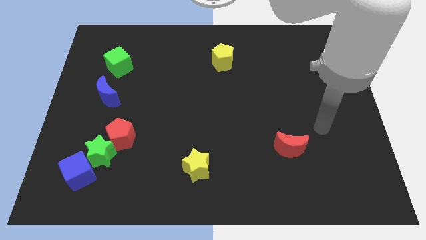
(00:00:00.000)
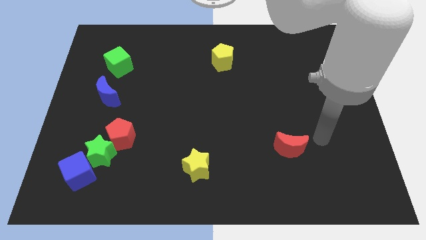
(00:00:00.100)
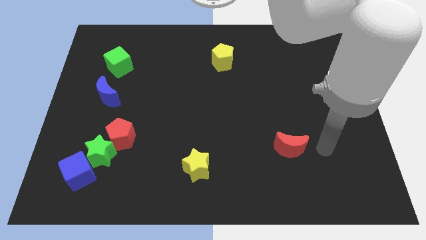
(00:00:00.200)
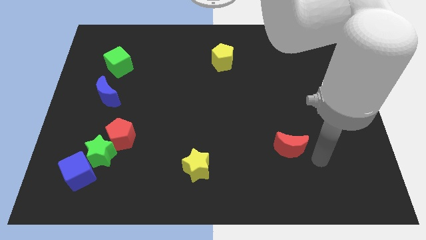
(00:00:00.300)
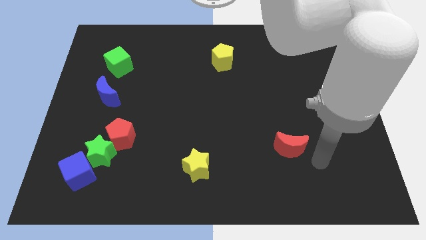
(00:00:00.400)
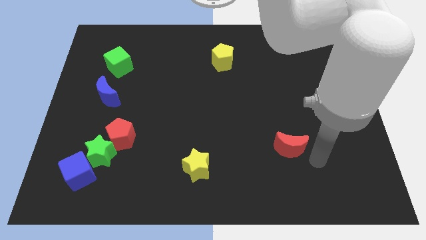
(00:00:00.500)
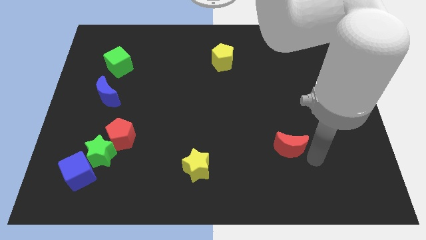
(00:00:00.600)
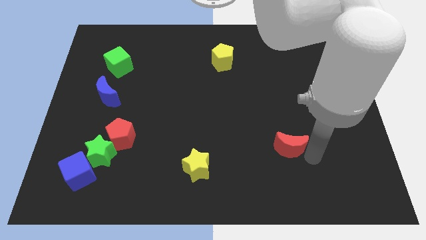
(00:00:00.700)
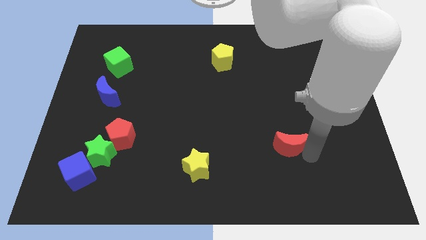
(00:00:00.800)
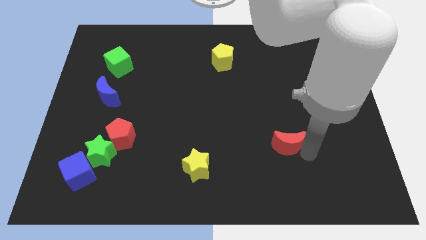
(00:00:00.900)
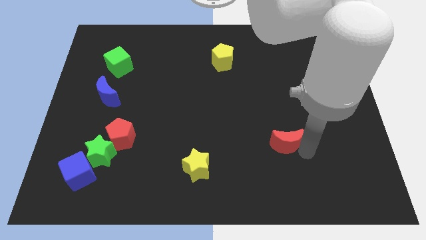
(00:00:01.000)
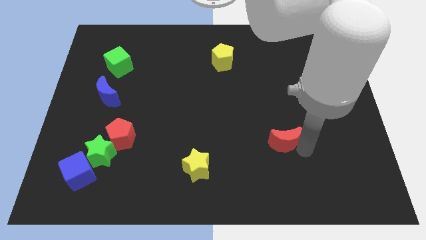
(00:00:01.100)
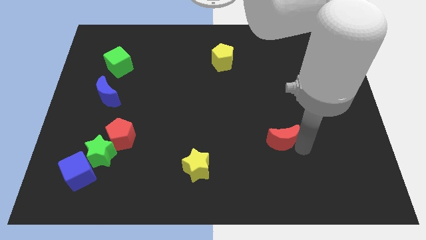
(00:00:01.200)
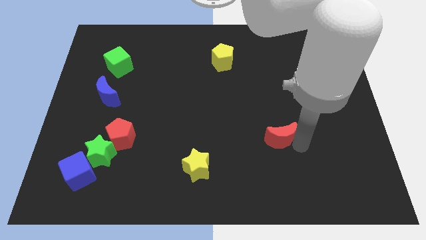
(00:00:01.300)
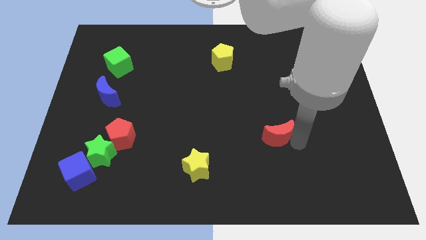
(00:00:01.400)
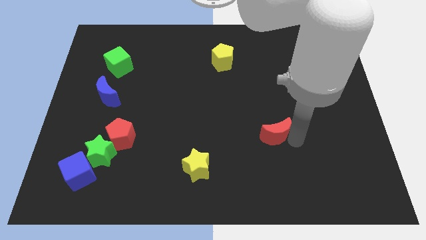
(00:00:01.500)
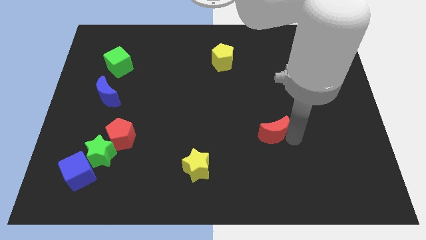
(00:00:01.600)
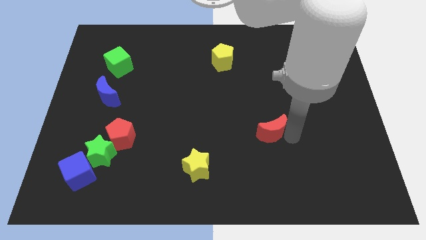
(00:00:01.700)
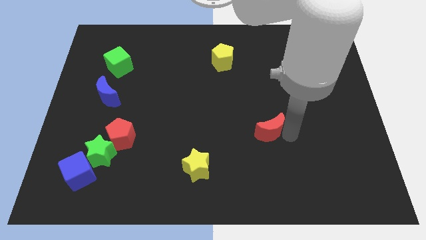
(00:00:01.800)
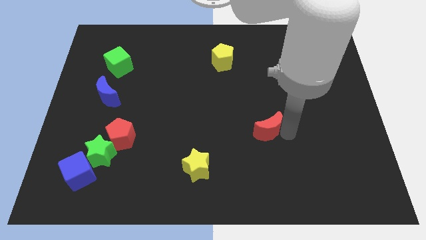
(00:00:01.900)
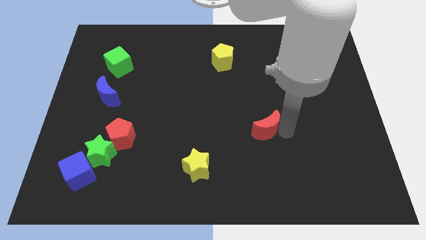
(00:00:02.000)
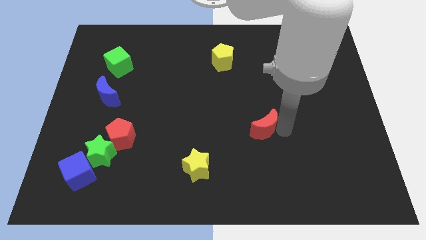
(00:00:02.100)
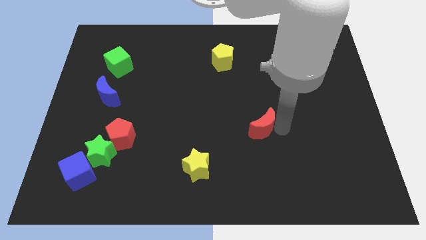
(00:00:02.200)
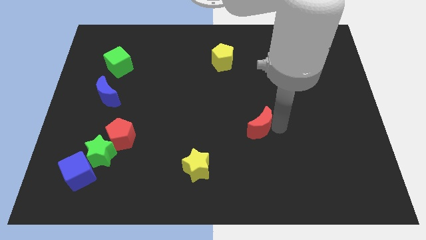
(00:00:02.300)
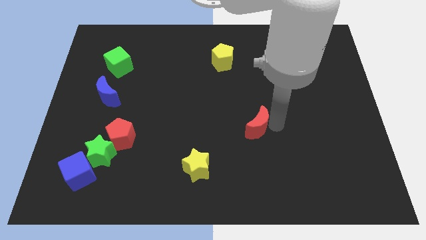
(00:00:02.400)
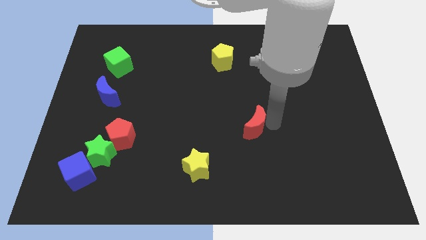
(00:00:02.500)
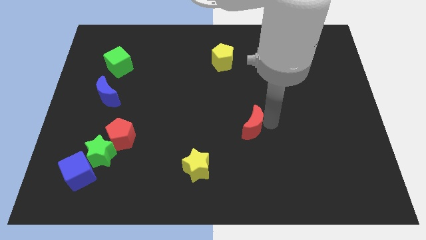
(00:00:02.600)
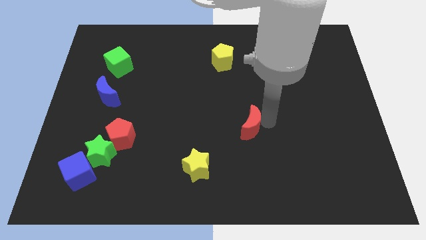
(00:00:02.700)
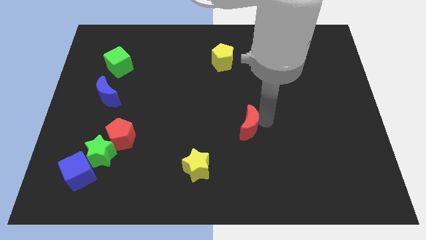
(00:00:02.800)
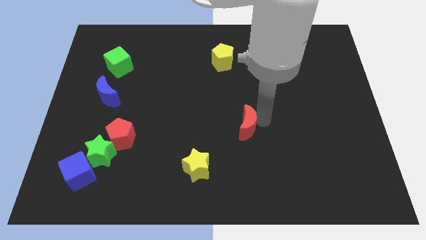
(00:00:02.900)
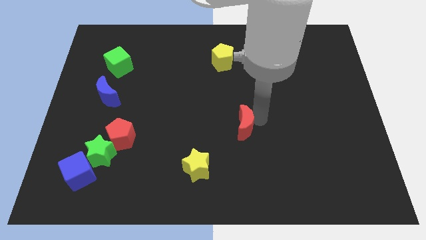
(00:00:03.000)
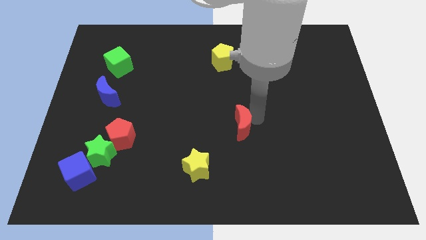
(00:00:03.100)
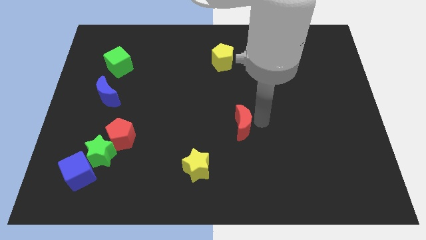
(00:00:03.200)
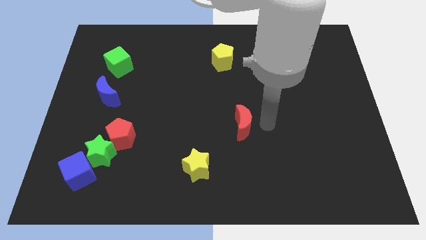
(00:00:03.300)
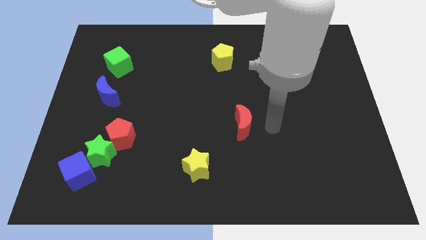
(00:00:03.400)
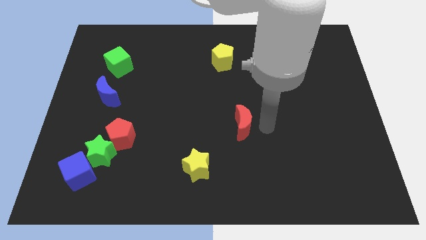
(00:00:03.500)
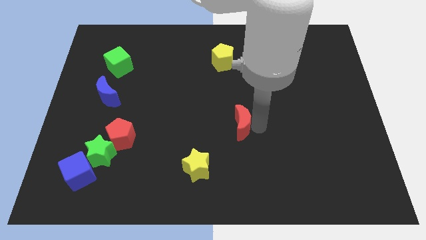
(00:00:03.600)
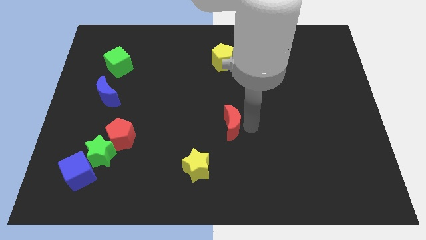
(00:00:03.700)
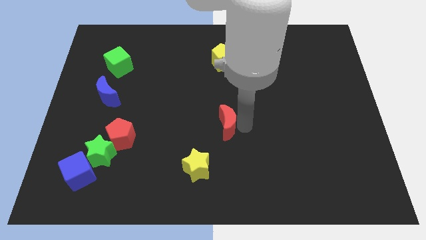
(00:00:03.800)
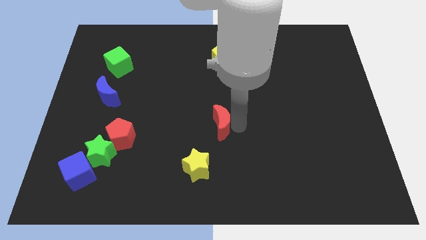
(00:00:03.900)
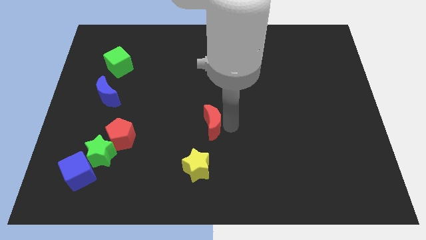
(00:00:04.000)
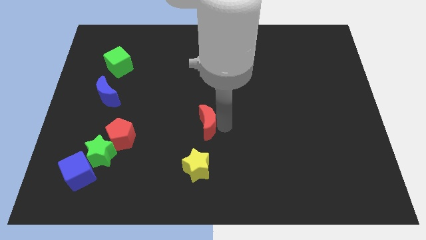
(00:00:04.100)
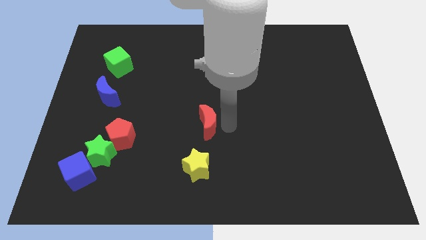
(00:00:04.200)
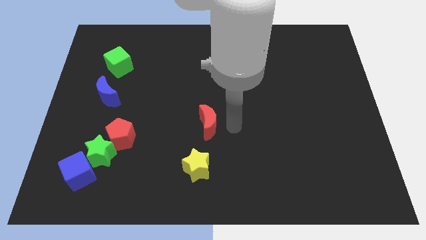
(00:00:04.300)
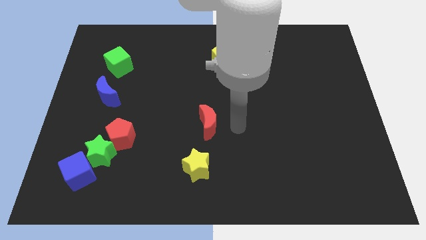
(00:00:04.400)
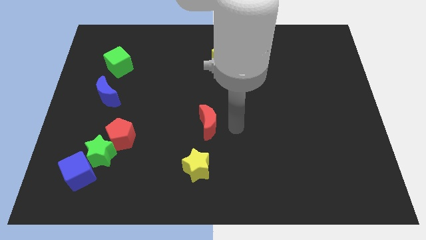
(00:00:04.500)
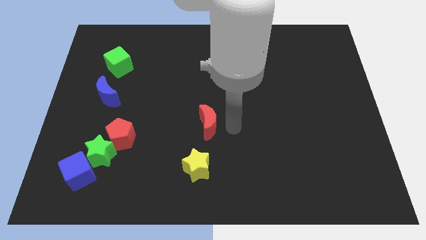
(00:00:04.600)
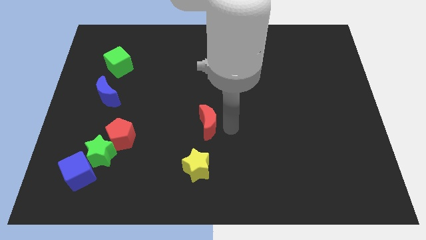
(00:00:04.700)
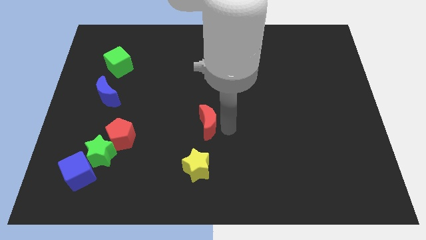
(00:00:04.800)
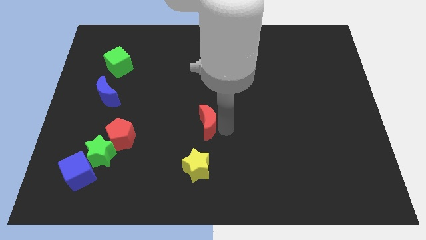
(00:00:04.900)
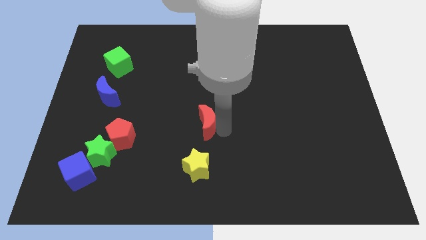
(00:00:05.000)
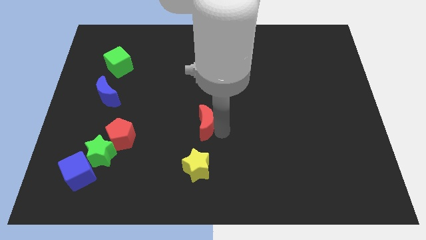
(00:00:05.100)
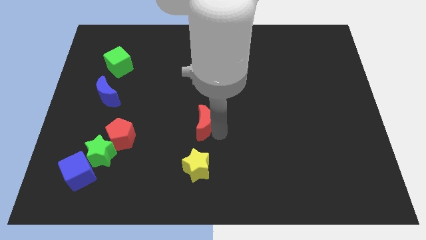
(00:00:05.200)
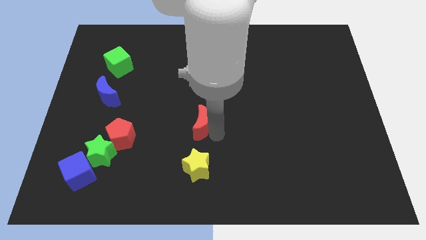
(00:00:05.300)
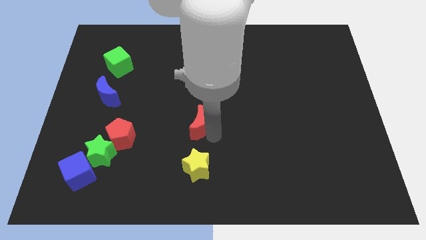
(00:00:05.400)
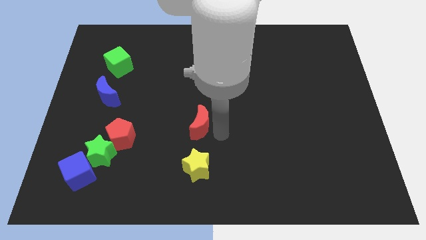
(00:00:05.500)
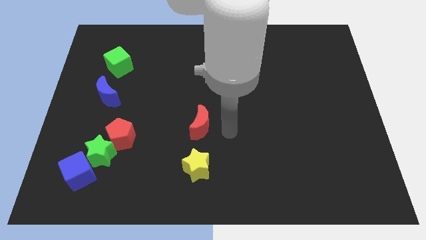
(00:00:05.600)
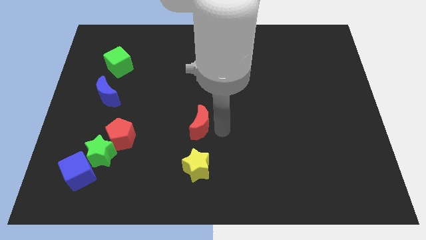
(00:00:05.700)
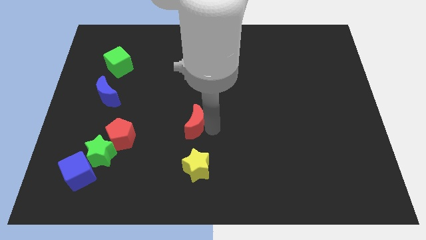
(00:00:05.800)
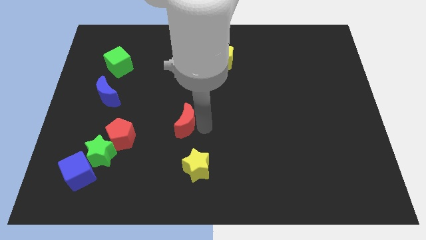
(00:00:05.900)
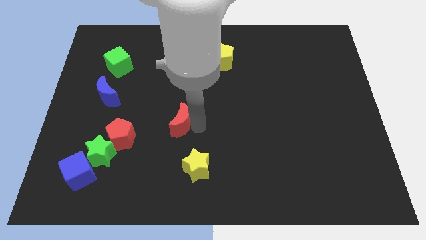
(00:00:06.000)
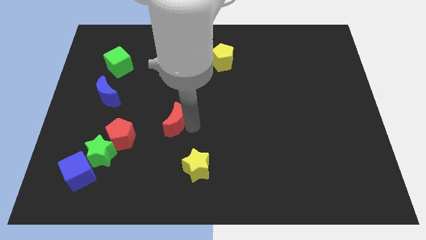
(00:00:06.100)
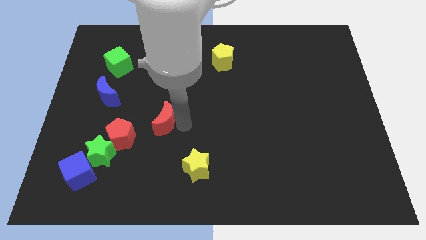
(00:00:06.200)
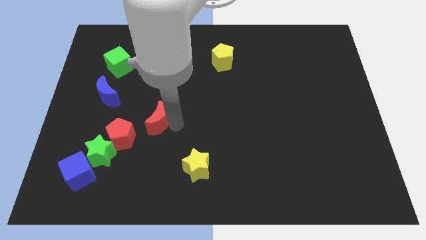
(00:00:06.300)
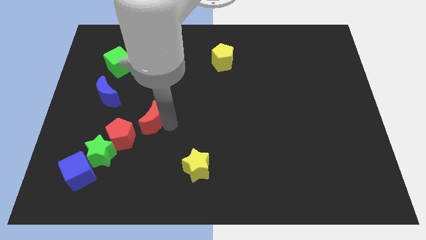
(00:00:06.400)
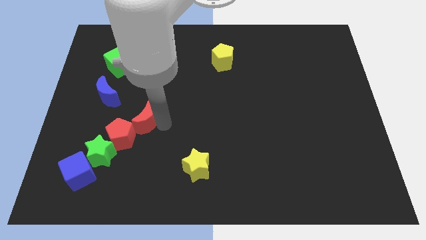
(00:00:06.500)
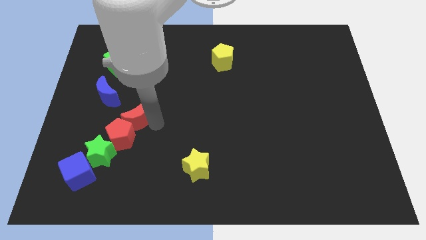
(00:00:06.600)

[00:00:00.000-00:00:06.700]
push the red moon to the bottom right side of the blue moon
